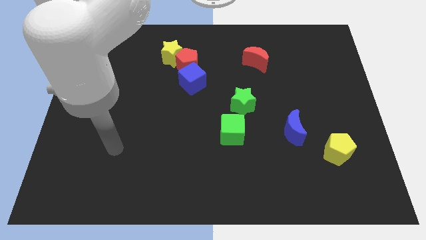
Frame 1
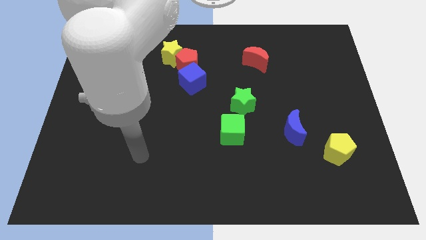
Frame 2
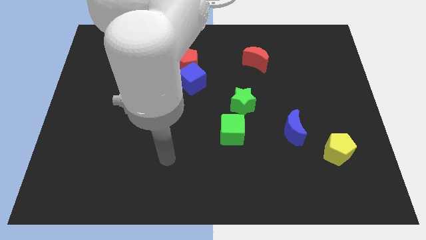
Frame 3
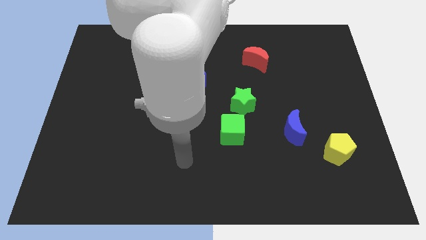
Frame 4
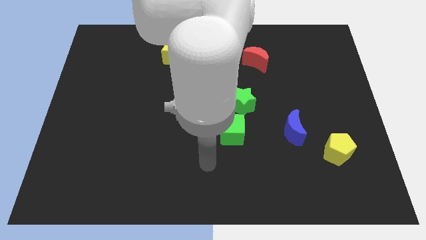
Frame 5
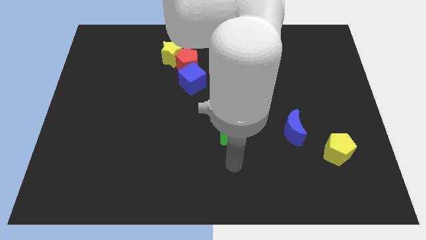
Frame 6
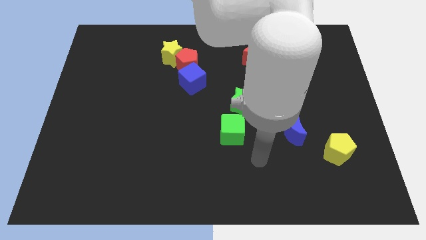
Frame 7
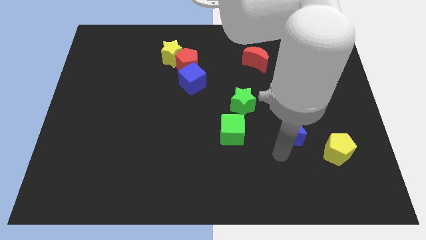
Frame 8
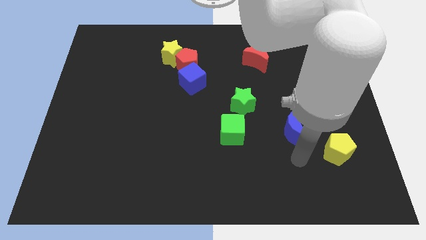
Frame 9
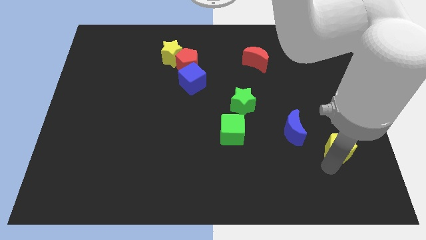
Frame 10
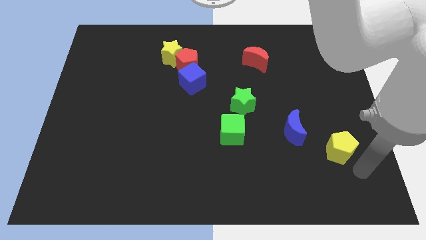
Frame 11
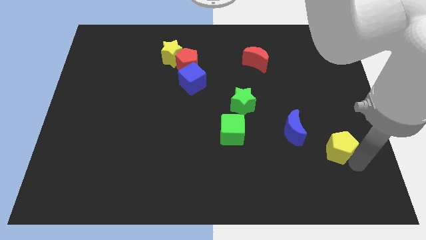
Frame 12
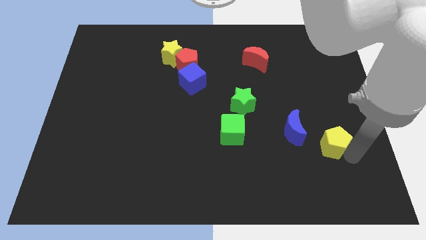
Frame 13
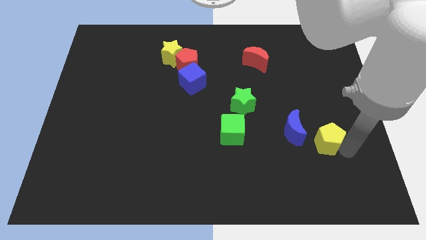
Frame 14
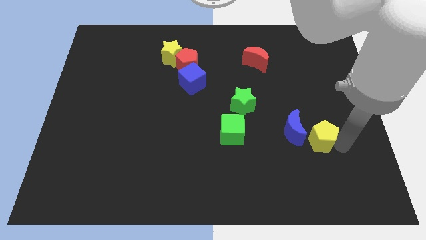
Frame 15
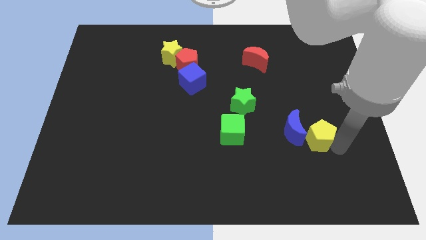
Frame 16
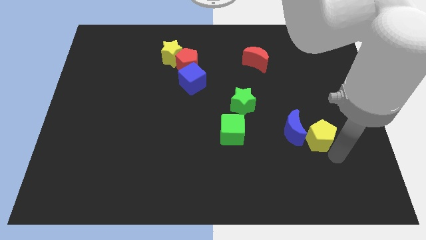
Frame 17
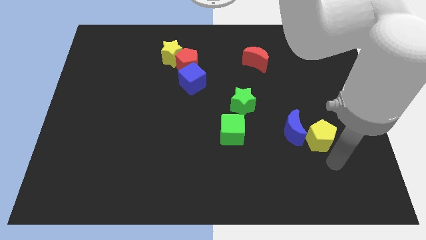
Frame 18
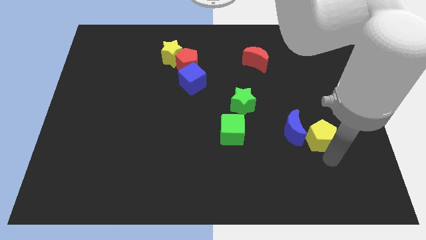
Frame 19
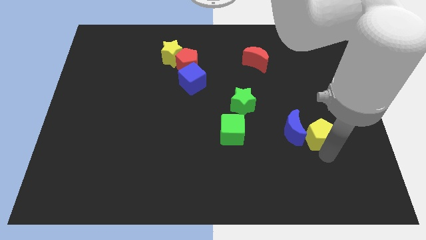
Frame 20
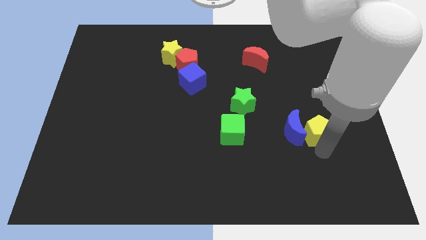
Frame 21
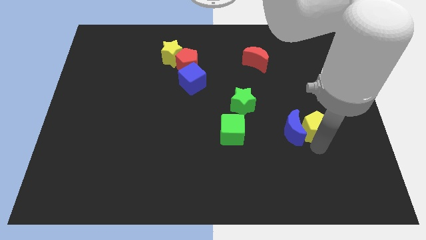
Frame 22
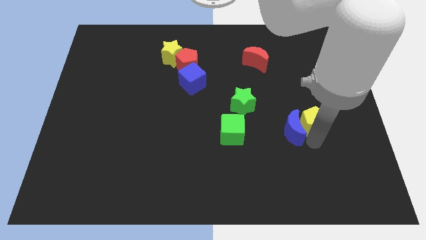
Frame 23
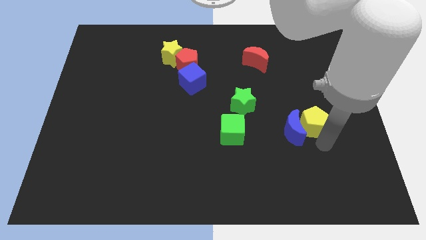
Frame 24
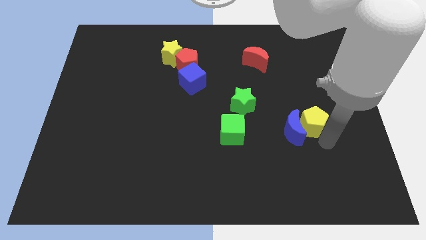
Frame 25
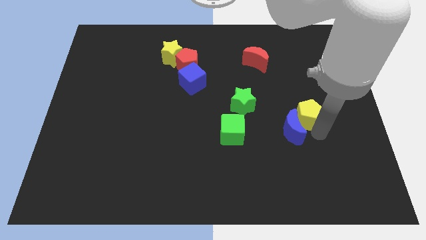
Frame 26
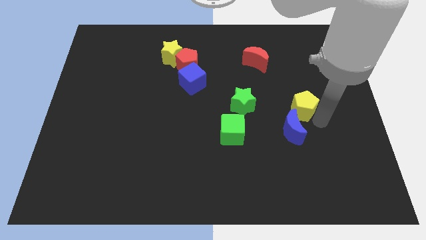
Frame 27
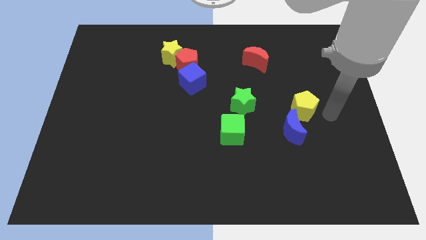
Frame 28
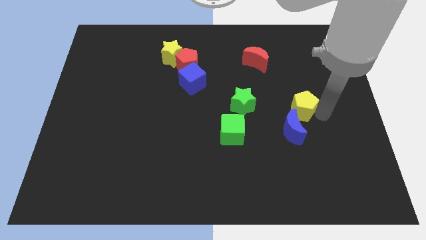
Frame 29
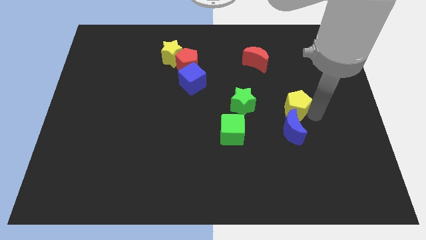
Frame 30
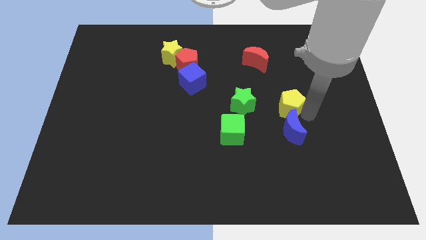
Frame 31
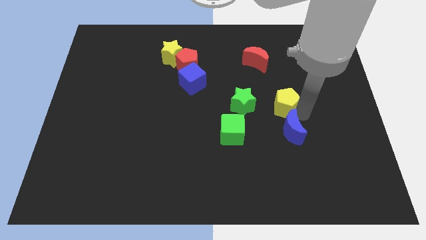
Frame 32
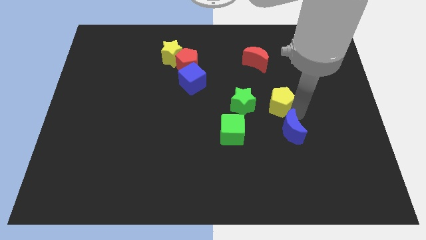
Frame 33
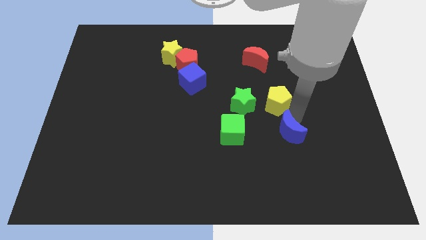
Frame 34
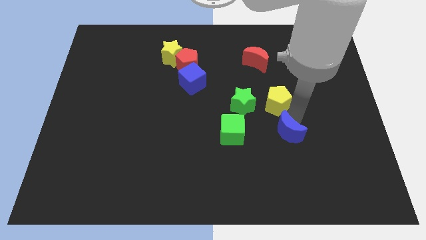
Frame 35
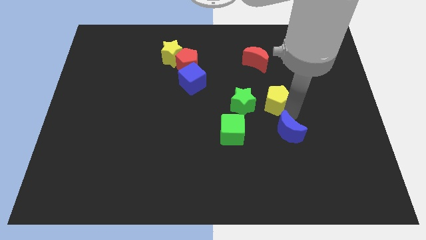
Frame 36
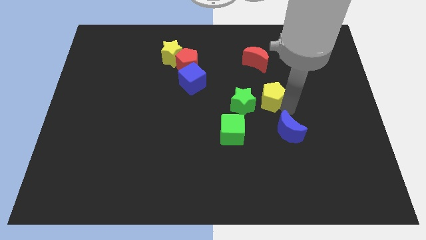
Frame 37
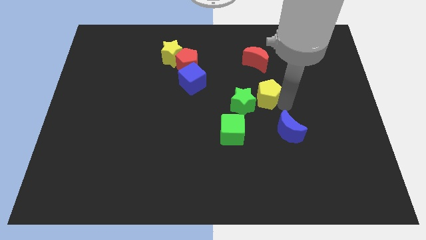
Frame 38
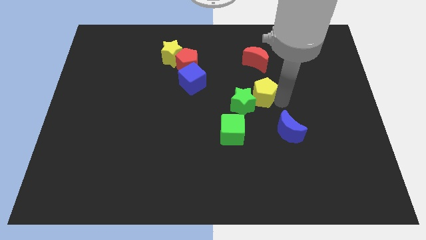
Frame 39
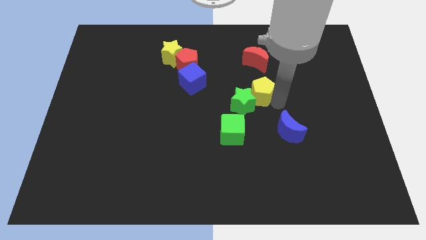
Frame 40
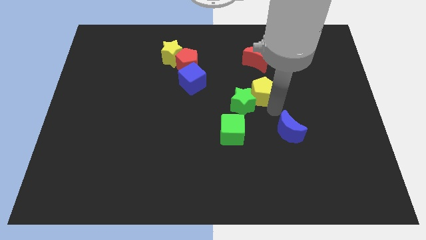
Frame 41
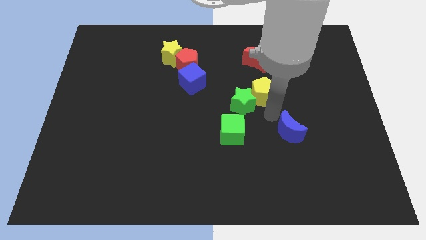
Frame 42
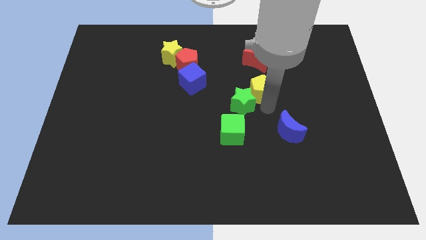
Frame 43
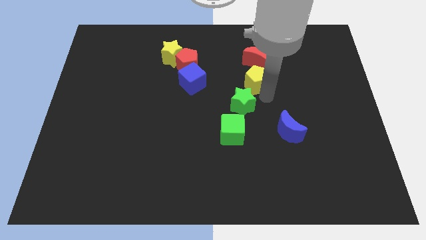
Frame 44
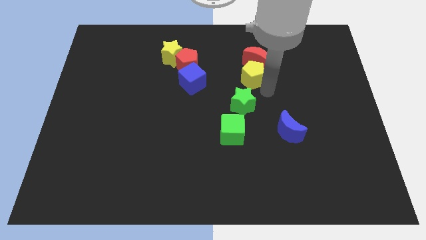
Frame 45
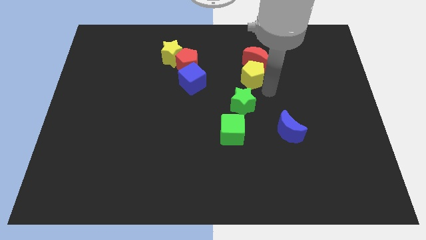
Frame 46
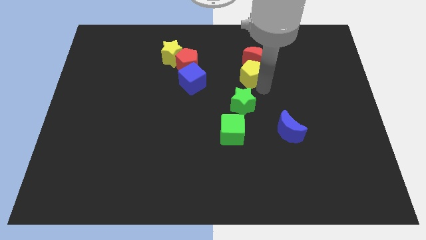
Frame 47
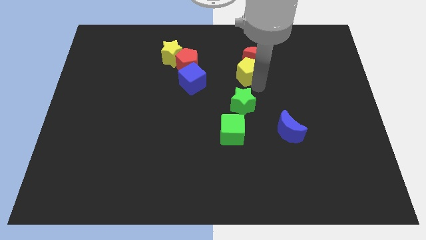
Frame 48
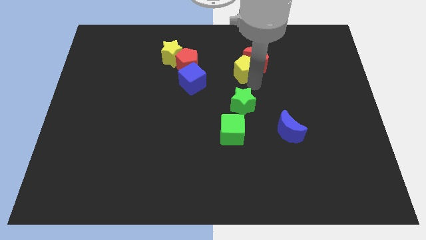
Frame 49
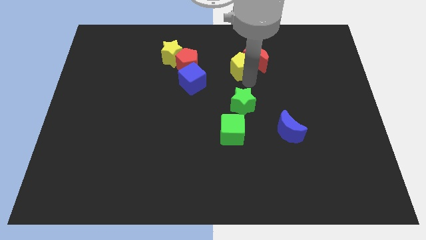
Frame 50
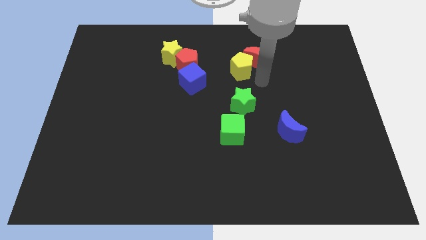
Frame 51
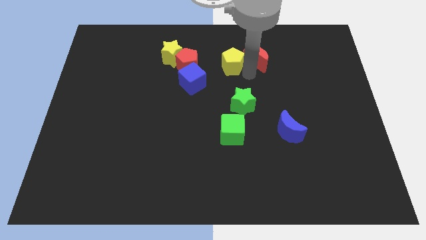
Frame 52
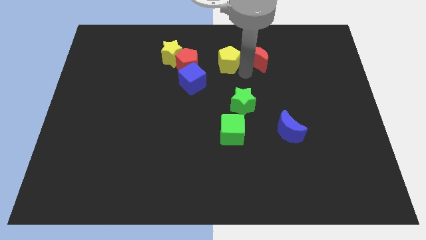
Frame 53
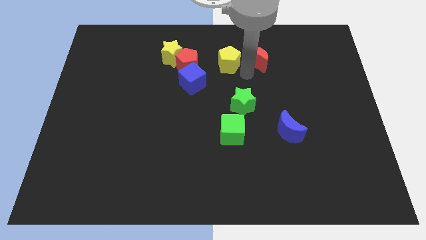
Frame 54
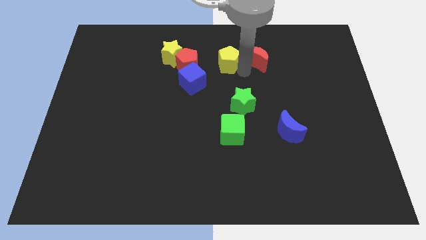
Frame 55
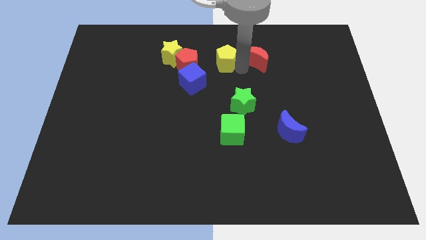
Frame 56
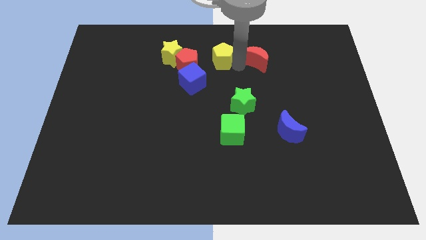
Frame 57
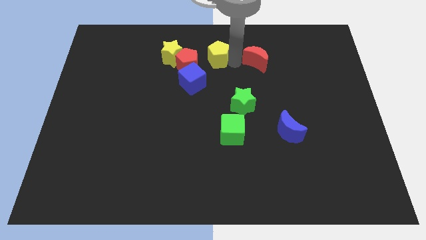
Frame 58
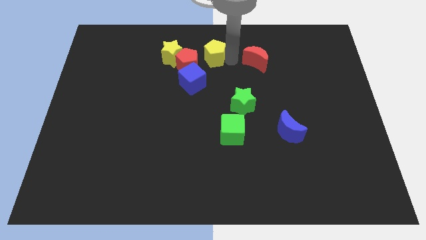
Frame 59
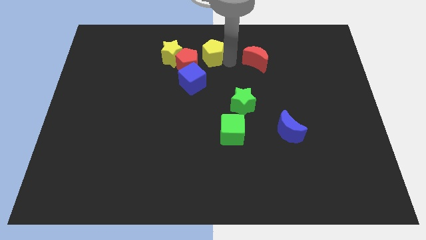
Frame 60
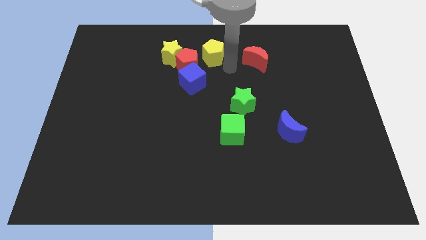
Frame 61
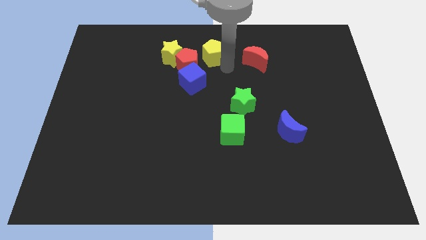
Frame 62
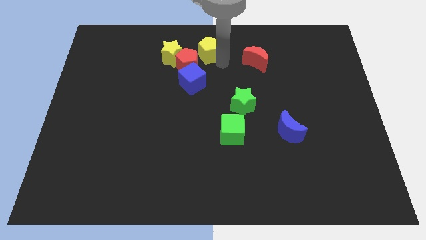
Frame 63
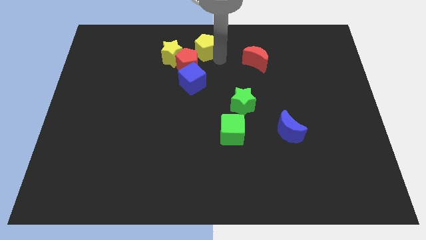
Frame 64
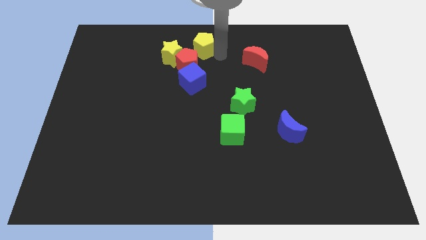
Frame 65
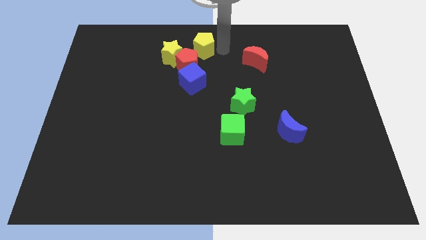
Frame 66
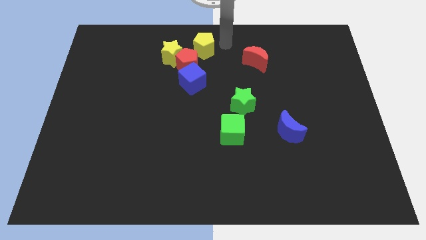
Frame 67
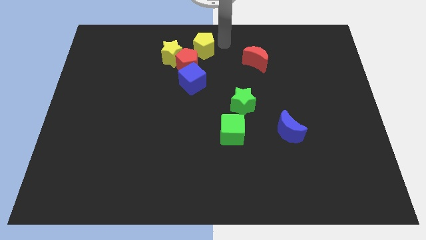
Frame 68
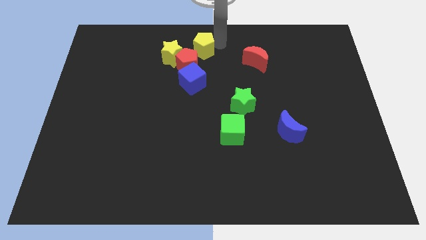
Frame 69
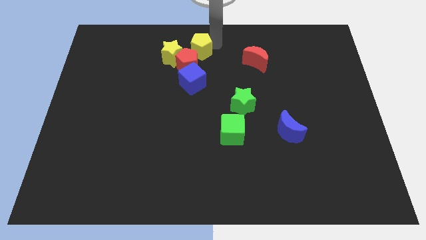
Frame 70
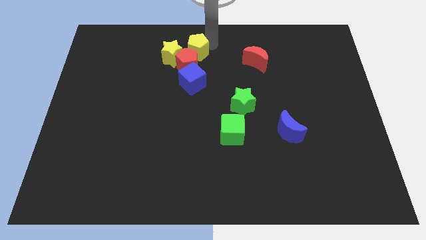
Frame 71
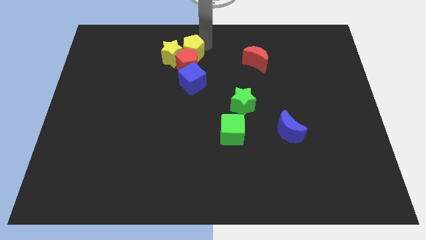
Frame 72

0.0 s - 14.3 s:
move the yellow pentagon towards the yellow star
